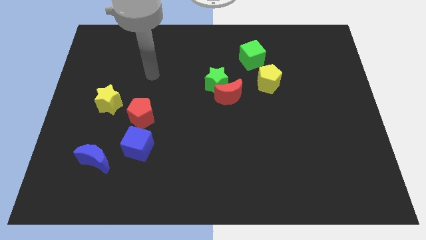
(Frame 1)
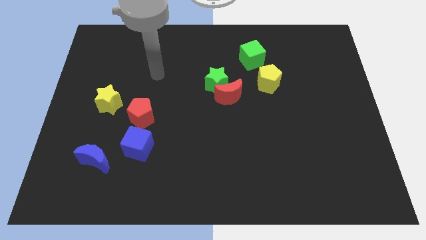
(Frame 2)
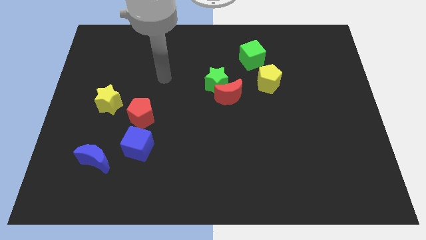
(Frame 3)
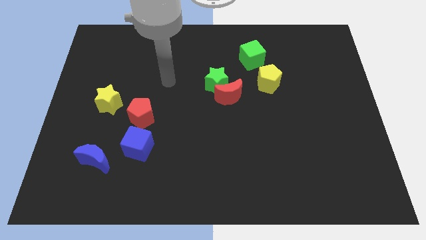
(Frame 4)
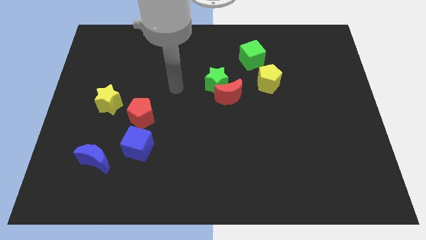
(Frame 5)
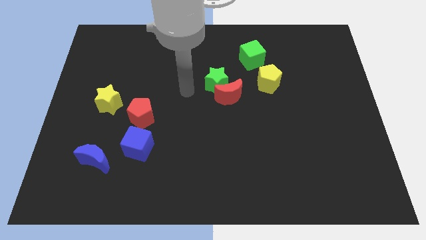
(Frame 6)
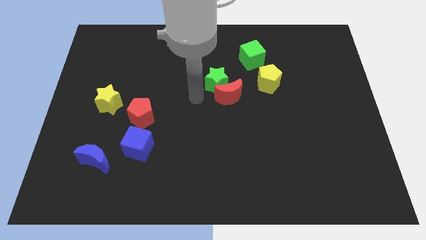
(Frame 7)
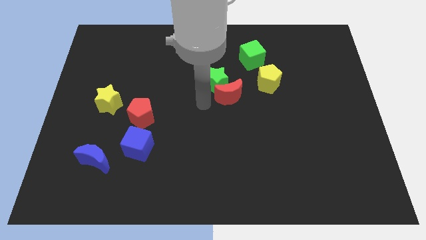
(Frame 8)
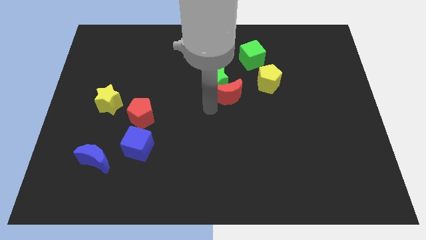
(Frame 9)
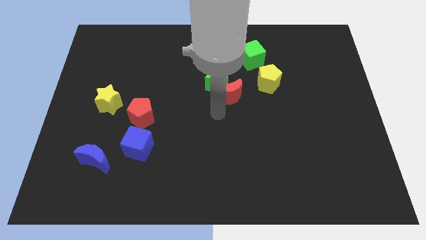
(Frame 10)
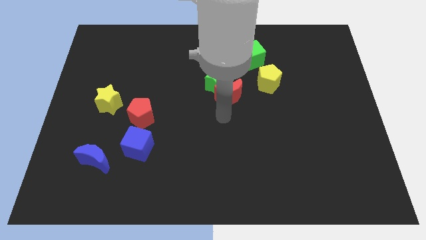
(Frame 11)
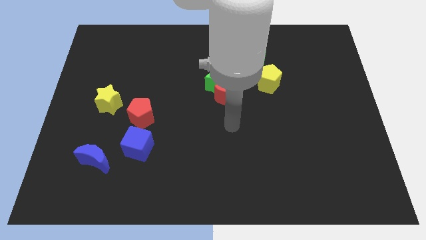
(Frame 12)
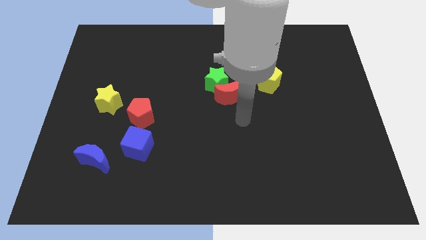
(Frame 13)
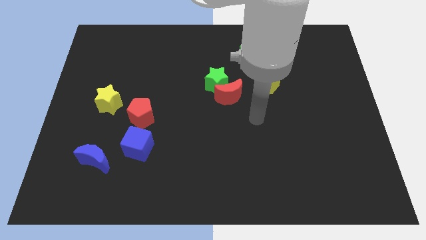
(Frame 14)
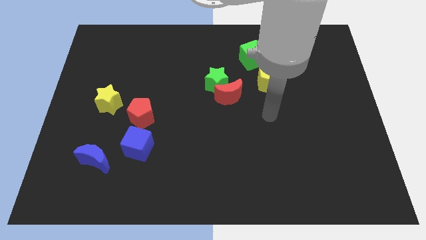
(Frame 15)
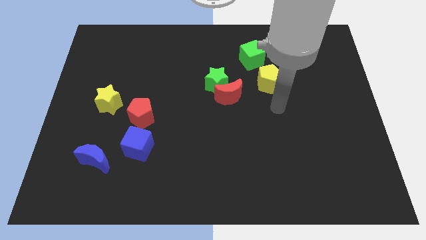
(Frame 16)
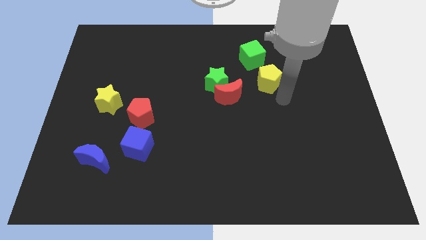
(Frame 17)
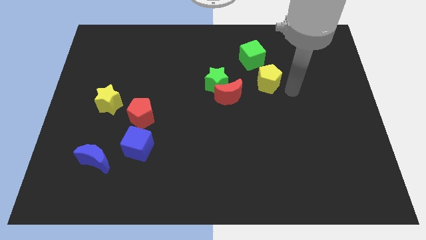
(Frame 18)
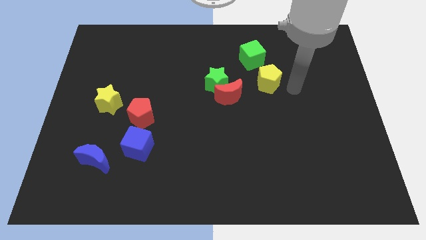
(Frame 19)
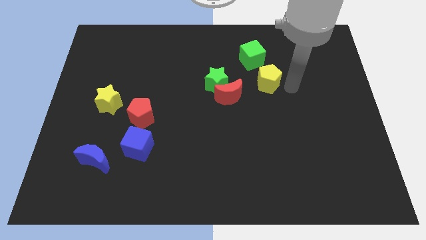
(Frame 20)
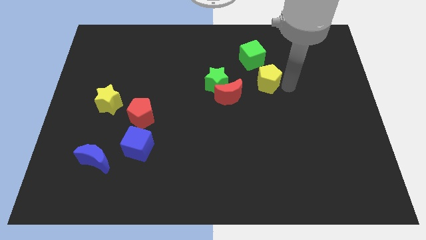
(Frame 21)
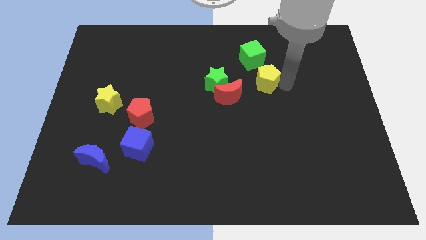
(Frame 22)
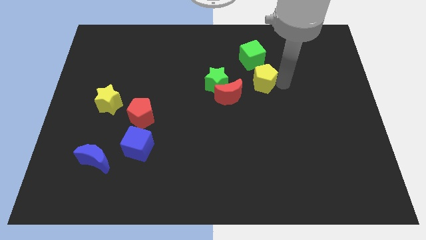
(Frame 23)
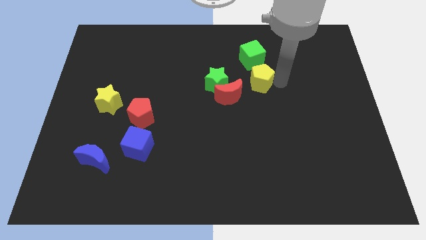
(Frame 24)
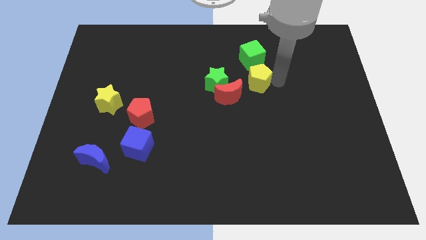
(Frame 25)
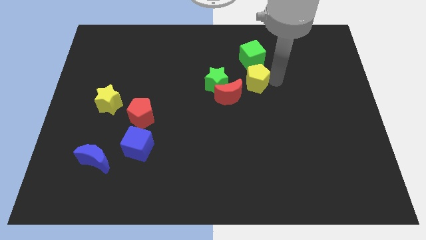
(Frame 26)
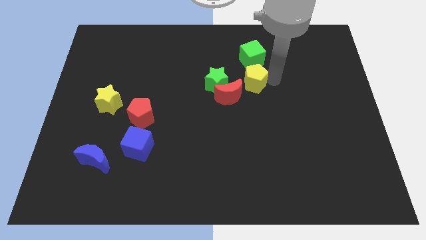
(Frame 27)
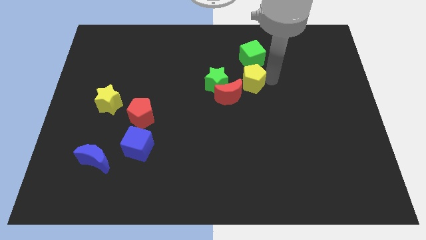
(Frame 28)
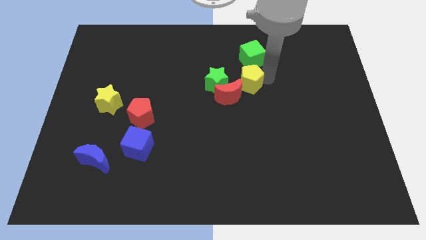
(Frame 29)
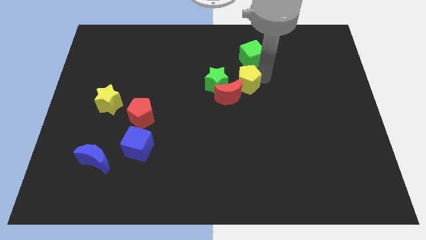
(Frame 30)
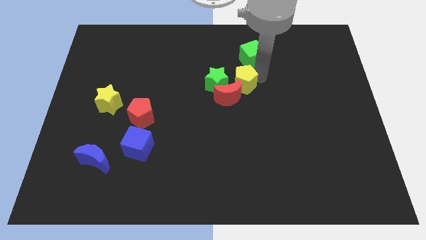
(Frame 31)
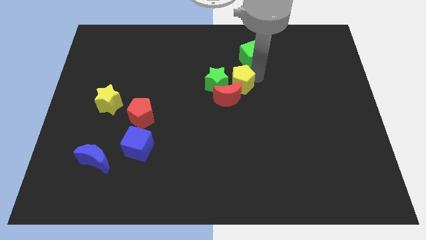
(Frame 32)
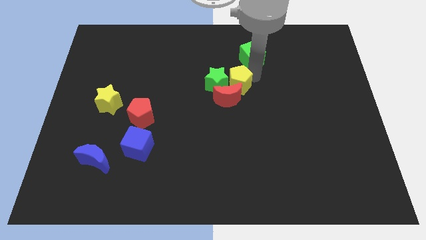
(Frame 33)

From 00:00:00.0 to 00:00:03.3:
move the yellow pentagon a little to the left

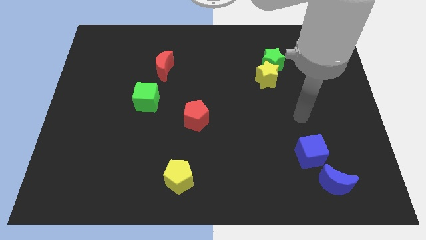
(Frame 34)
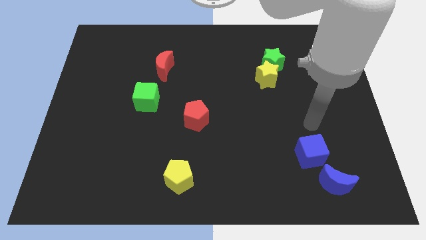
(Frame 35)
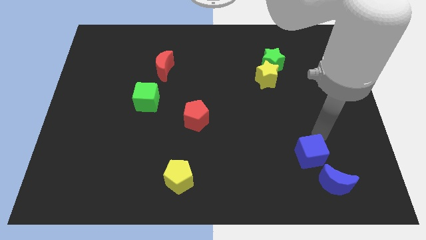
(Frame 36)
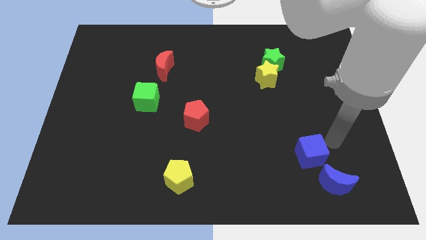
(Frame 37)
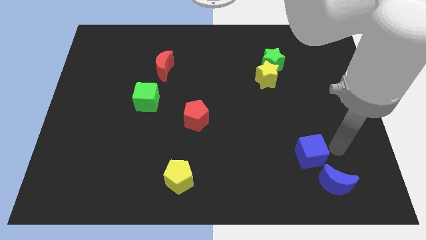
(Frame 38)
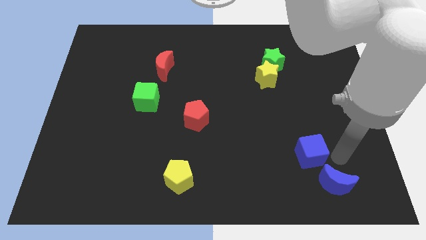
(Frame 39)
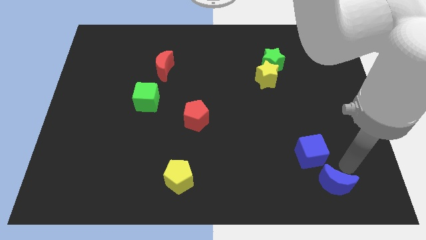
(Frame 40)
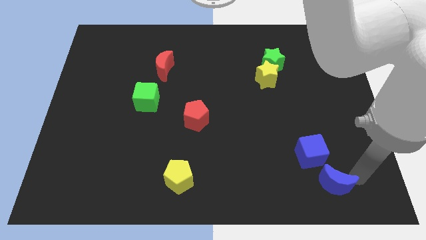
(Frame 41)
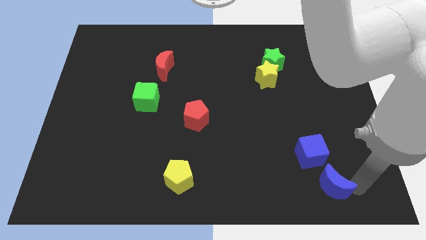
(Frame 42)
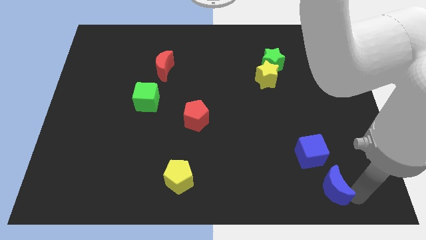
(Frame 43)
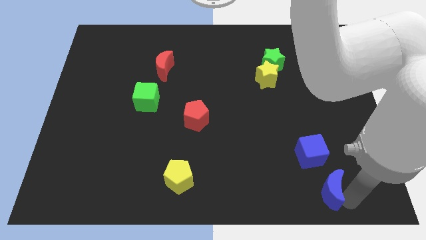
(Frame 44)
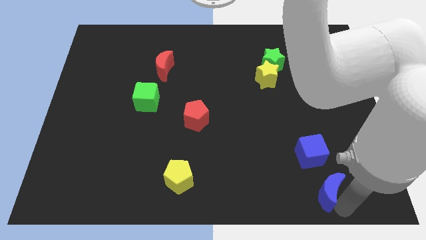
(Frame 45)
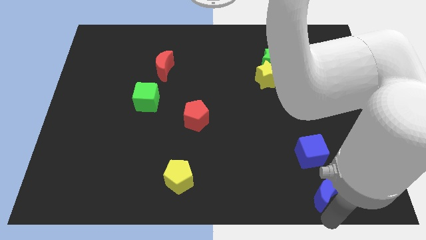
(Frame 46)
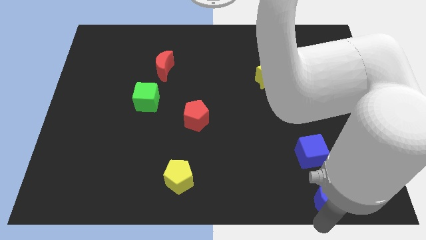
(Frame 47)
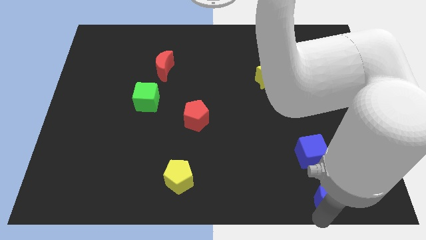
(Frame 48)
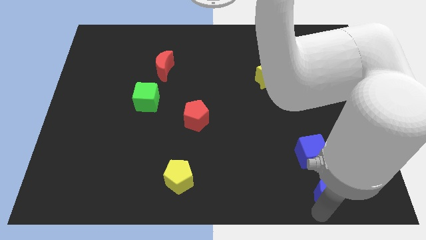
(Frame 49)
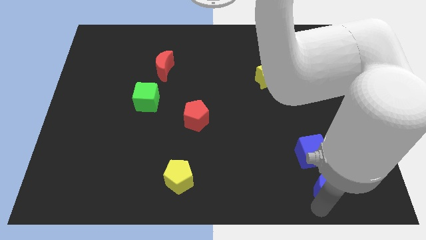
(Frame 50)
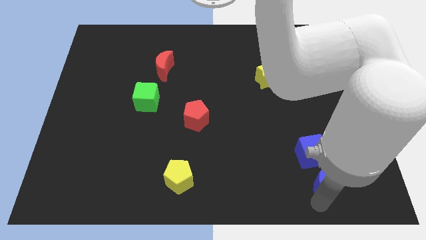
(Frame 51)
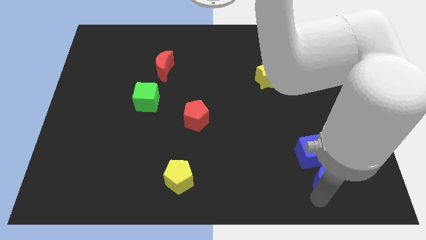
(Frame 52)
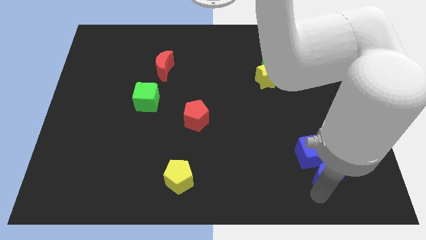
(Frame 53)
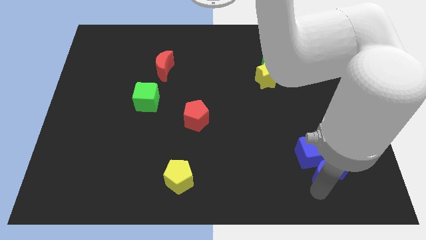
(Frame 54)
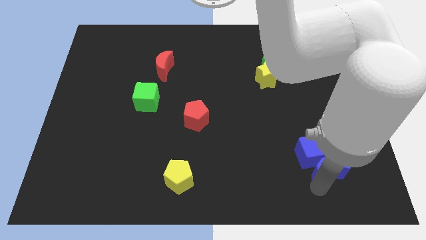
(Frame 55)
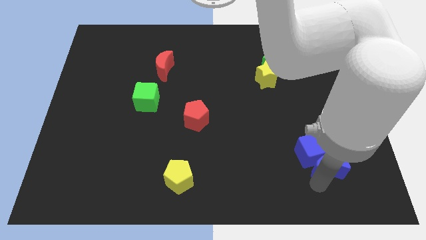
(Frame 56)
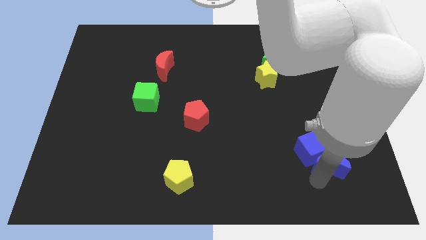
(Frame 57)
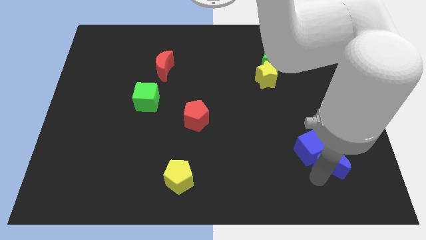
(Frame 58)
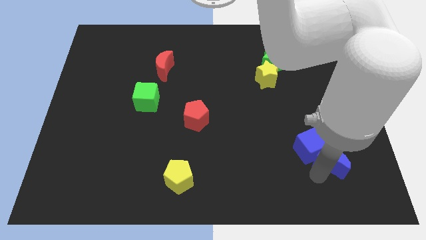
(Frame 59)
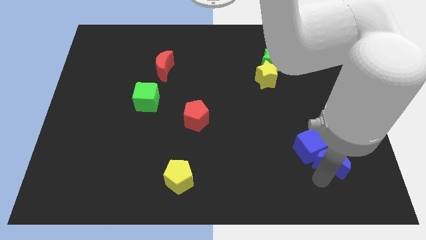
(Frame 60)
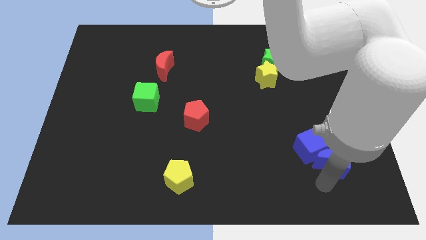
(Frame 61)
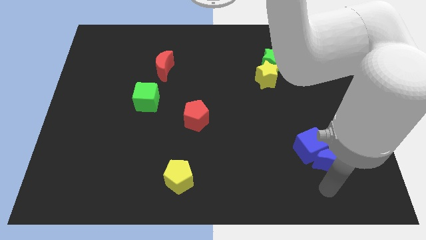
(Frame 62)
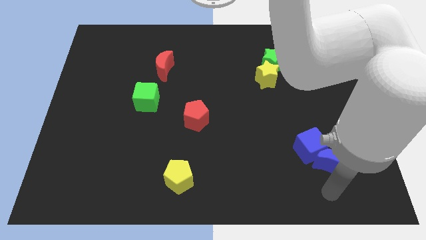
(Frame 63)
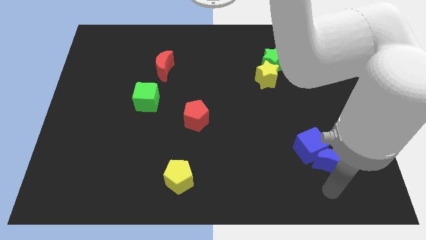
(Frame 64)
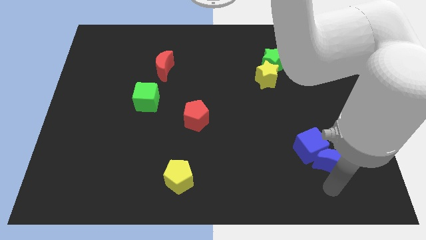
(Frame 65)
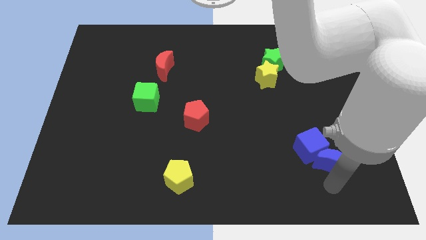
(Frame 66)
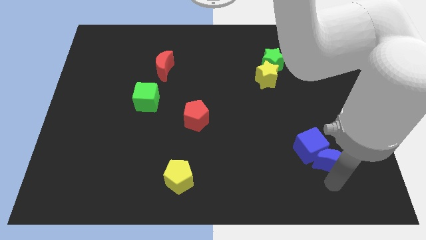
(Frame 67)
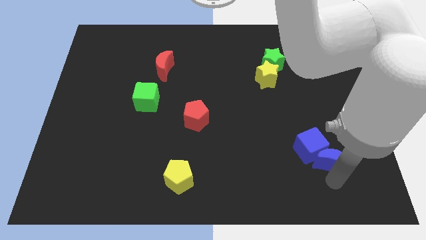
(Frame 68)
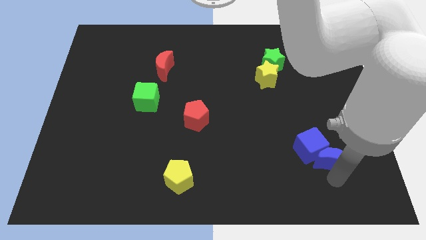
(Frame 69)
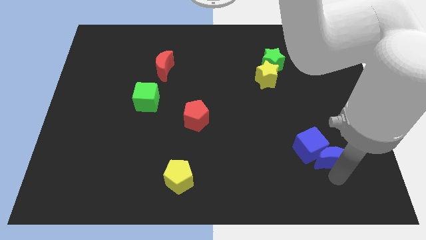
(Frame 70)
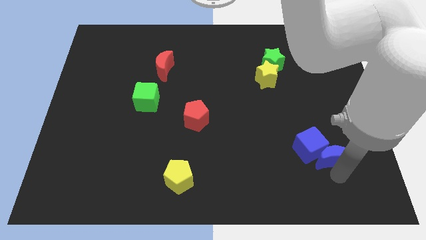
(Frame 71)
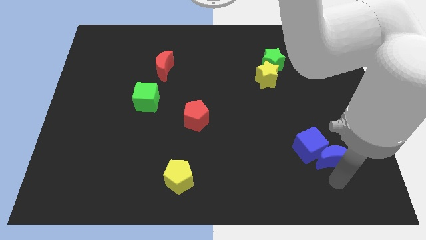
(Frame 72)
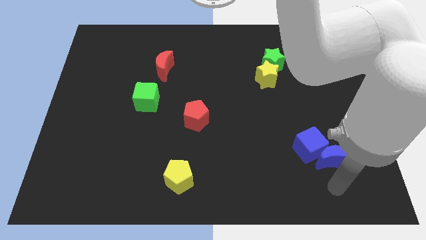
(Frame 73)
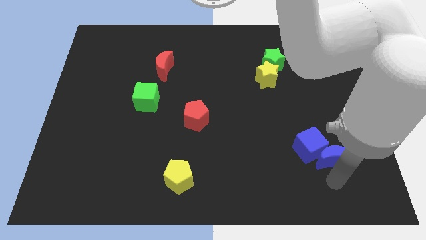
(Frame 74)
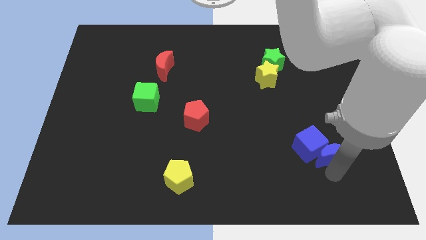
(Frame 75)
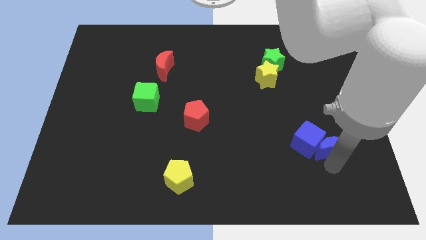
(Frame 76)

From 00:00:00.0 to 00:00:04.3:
slide the blue moon upwards somewhat

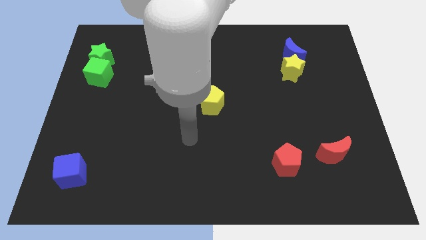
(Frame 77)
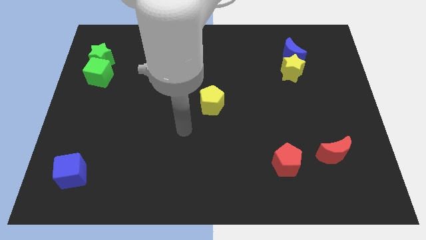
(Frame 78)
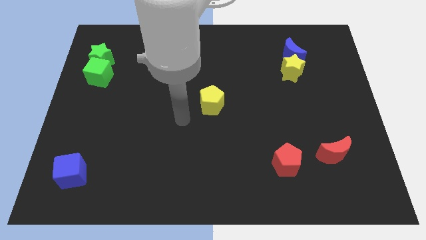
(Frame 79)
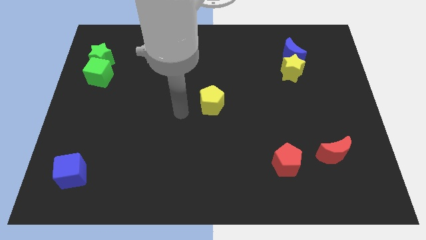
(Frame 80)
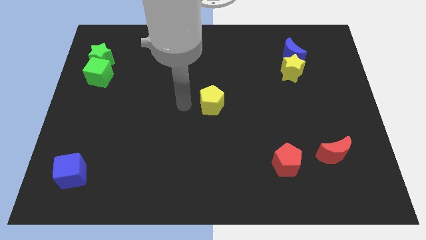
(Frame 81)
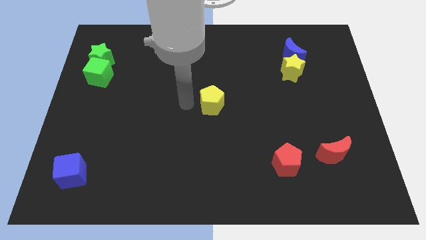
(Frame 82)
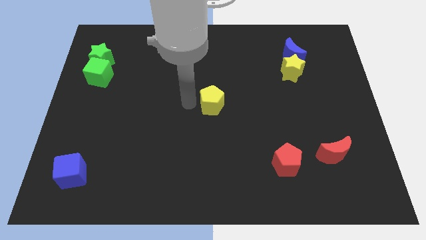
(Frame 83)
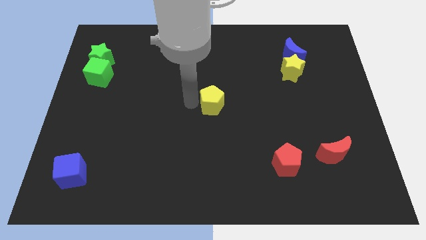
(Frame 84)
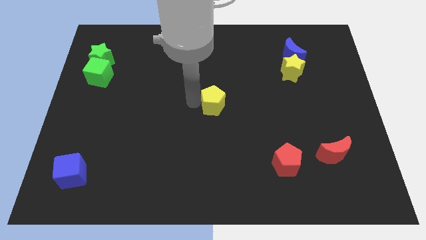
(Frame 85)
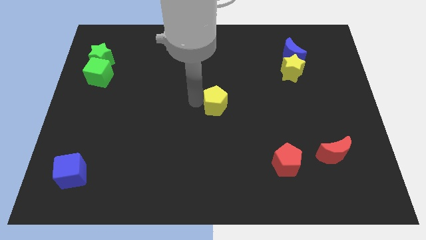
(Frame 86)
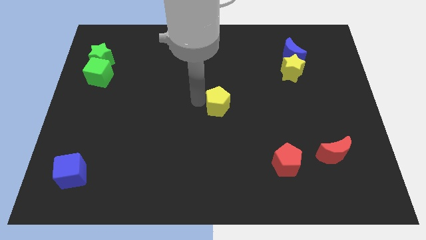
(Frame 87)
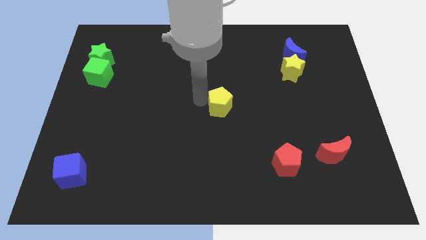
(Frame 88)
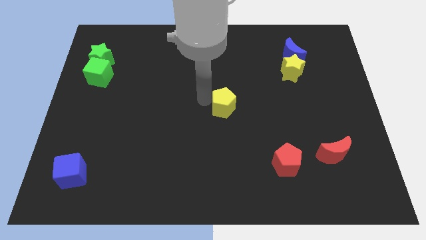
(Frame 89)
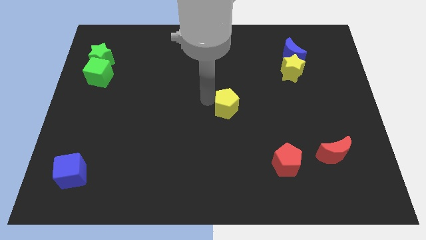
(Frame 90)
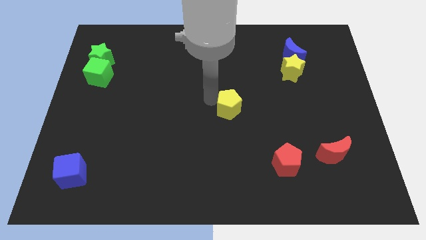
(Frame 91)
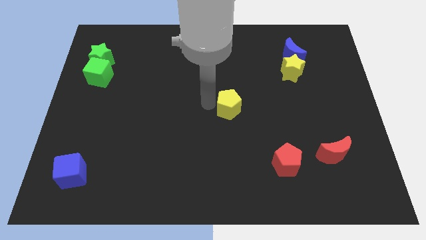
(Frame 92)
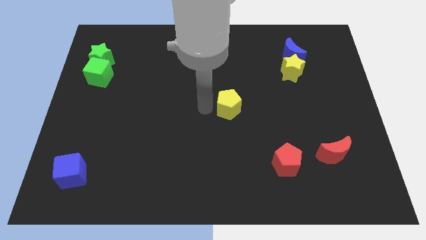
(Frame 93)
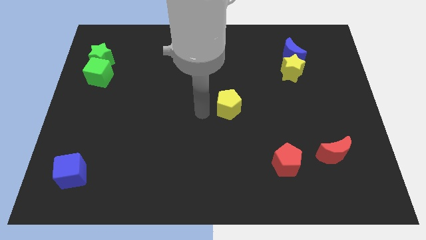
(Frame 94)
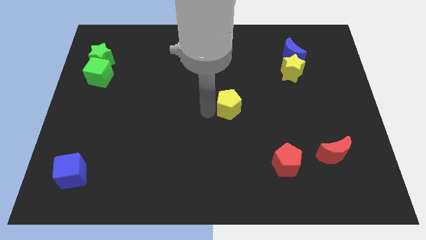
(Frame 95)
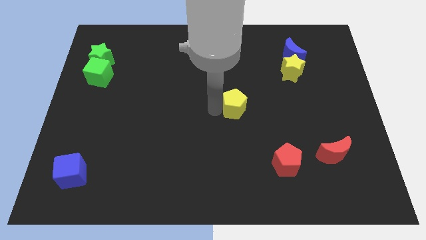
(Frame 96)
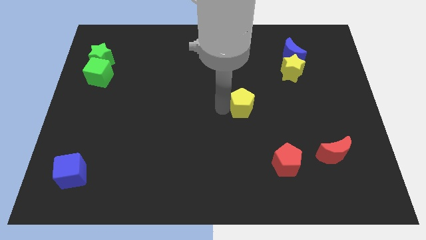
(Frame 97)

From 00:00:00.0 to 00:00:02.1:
move the yellow pentagon to the right a little
